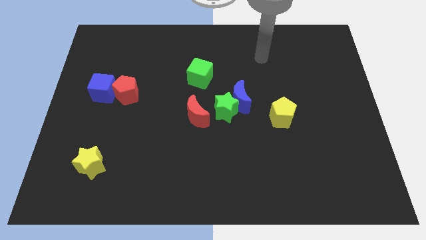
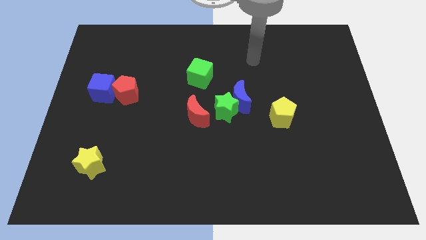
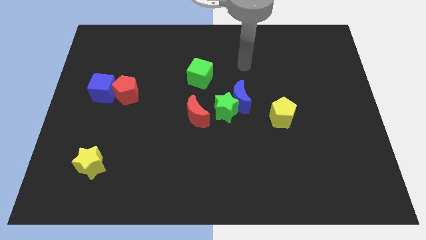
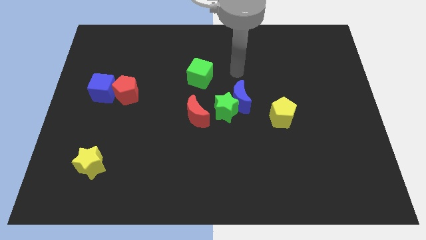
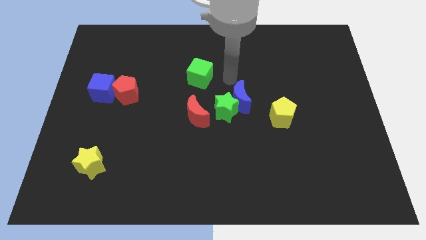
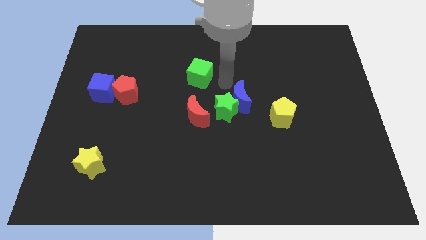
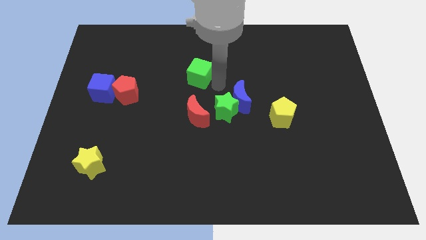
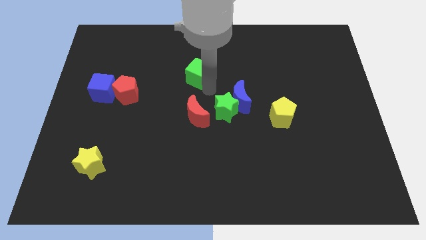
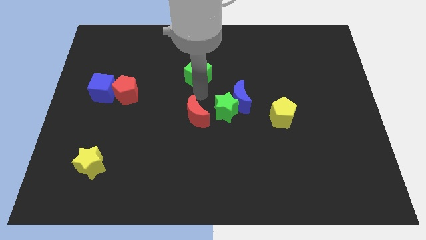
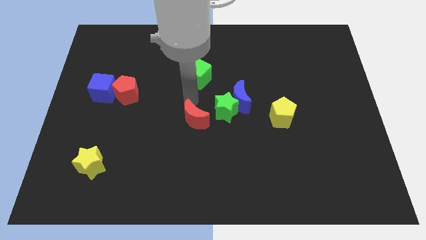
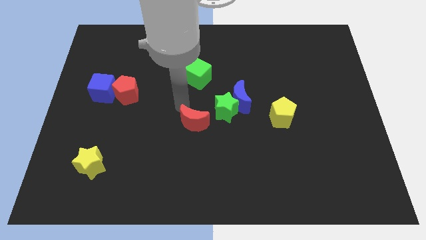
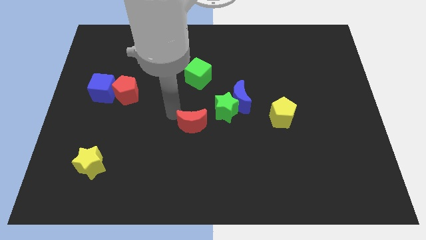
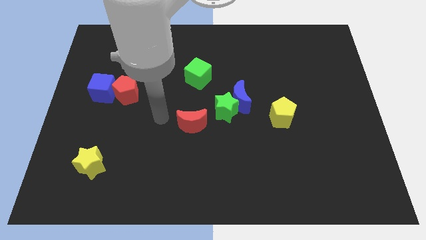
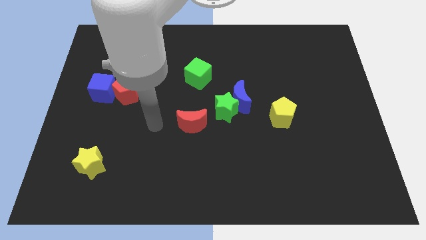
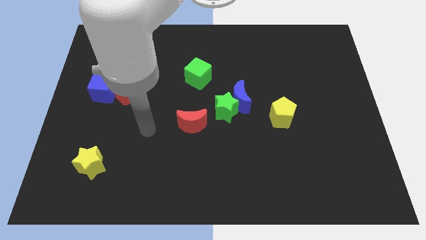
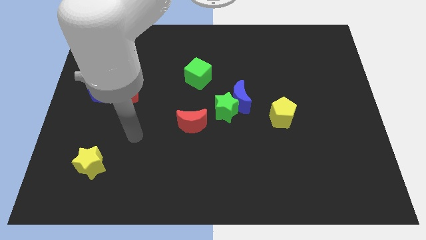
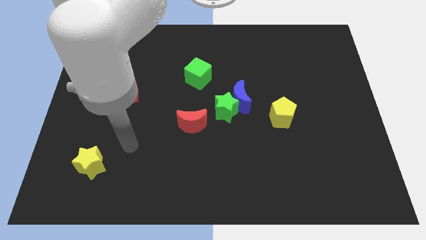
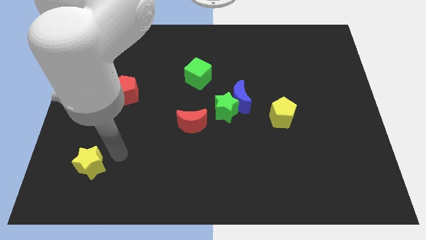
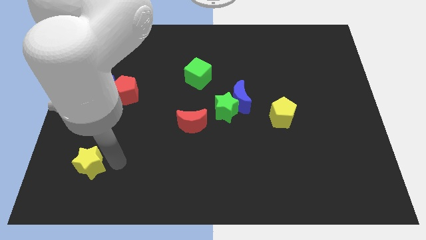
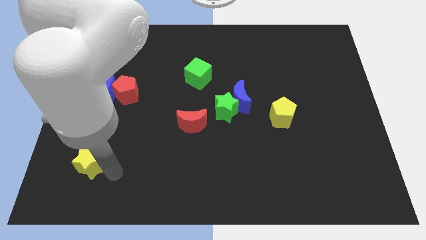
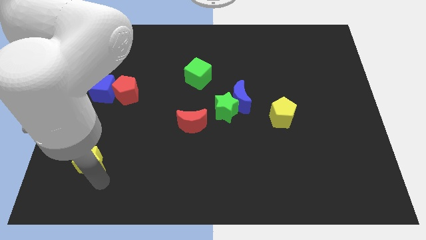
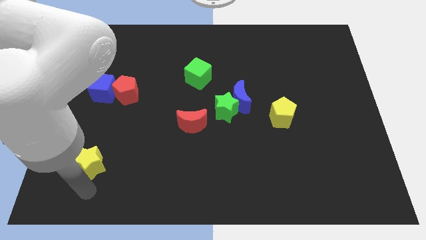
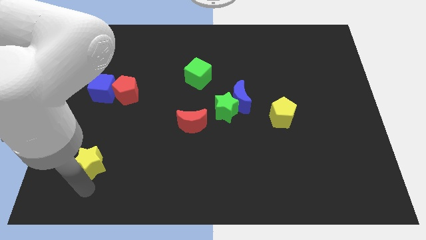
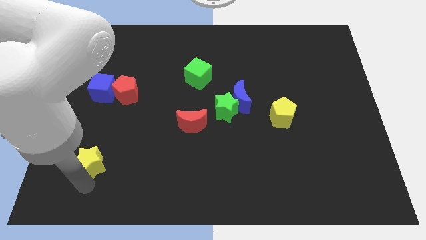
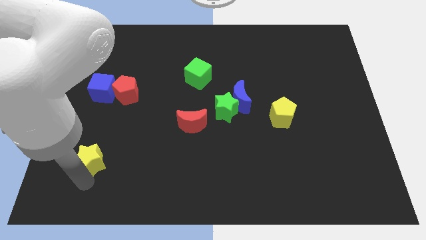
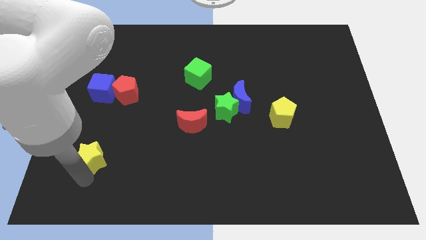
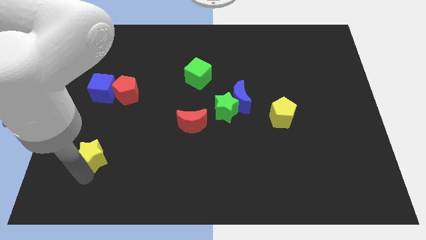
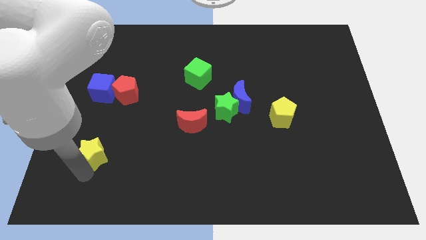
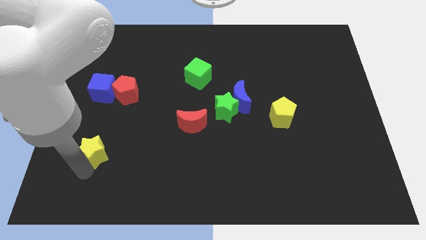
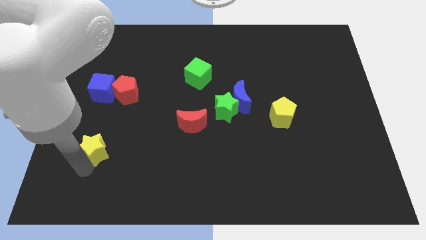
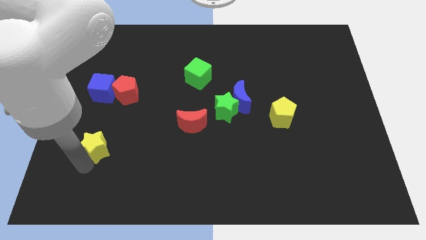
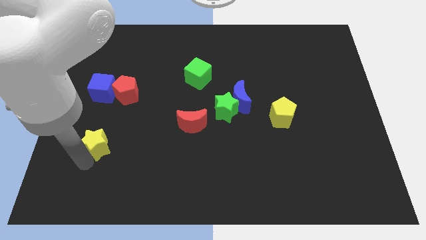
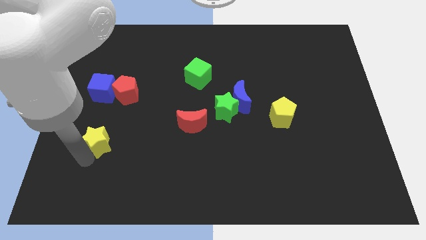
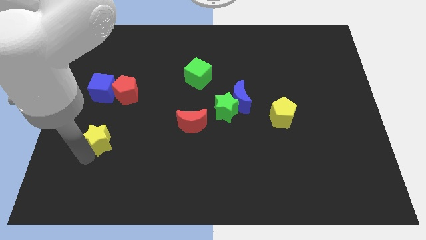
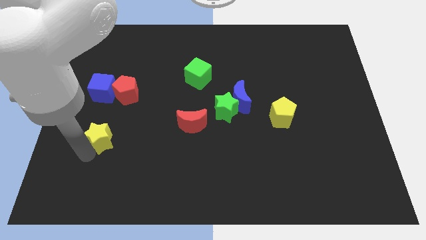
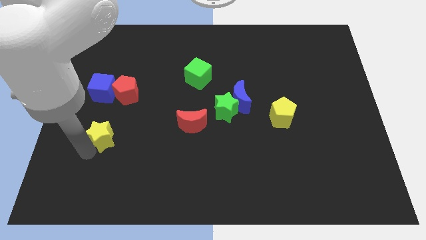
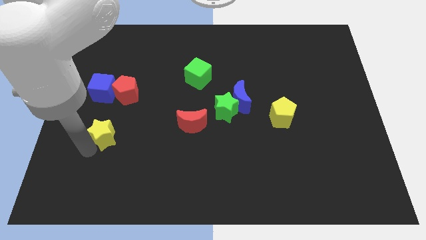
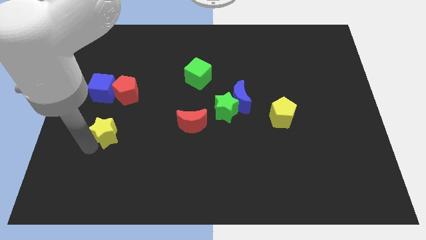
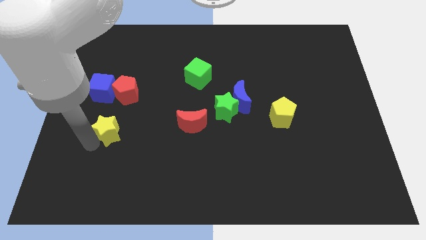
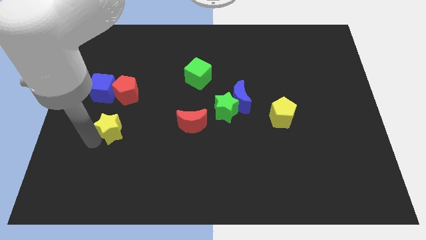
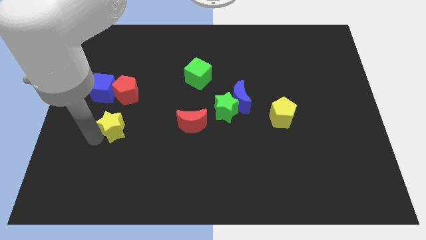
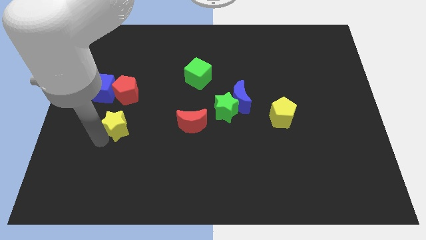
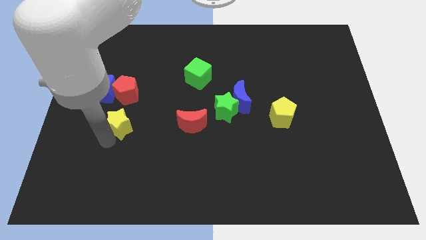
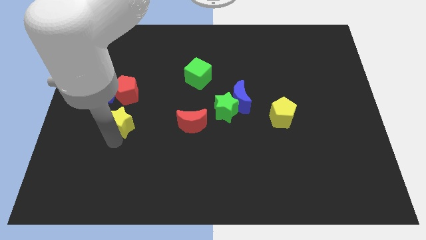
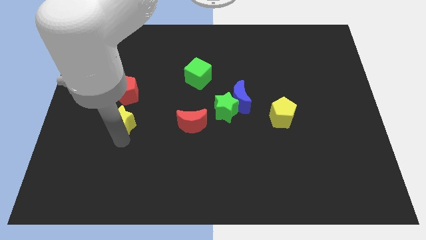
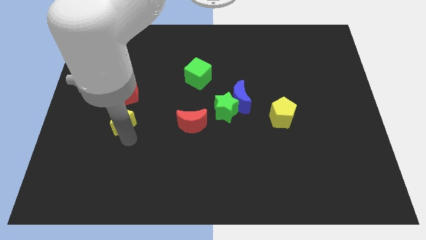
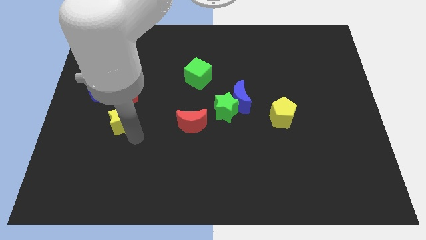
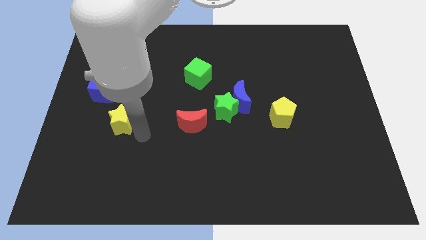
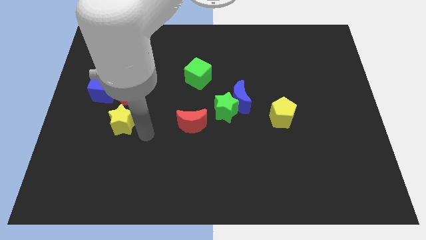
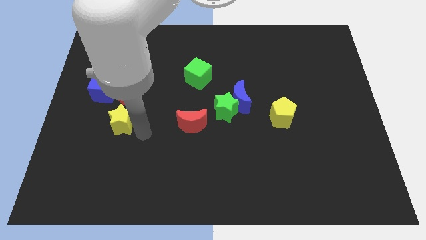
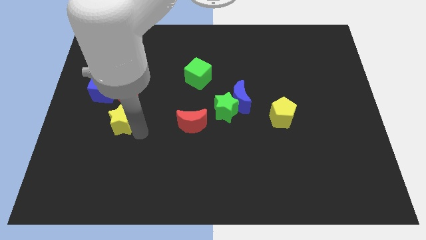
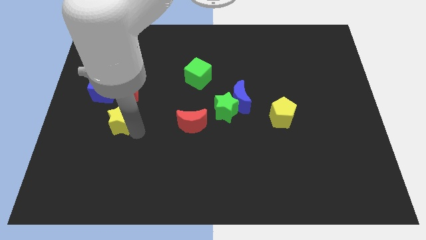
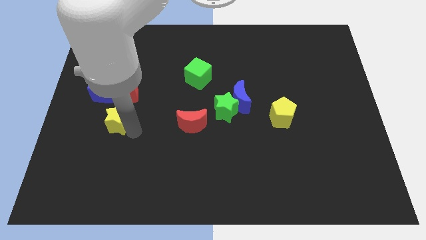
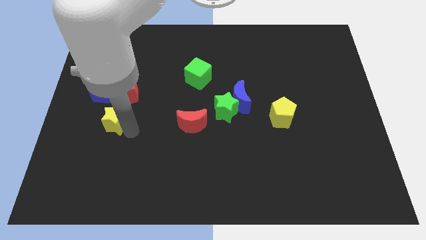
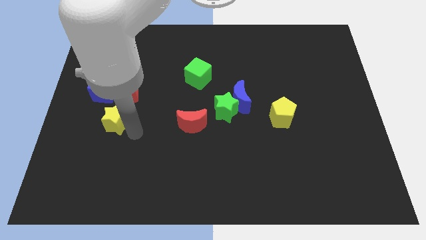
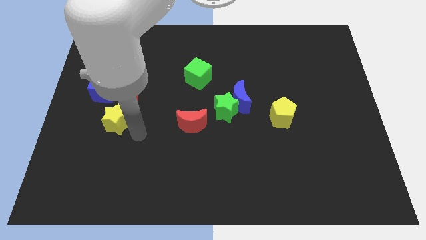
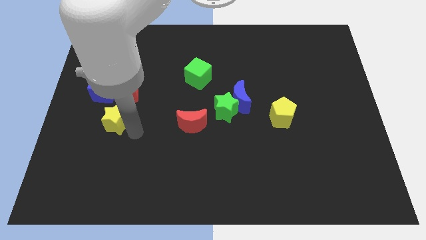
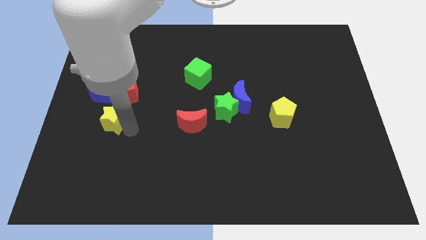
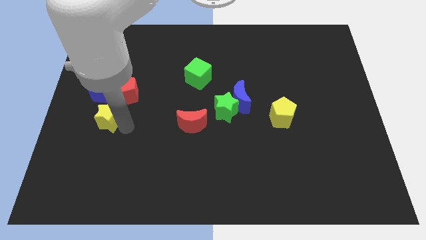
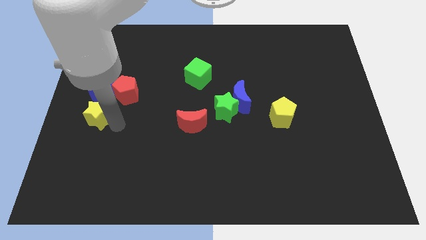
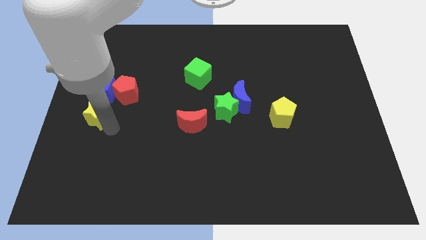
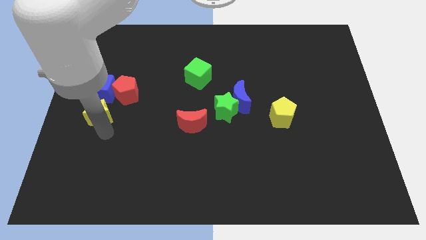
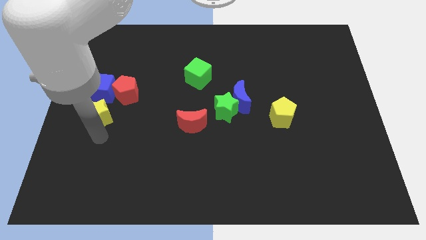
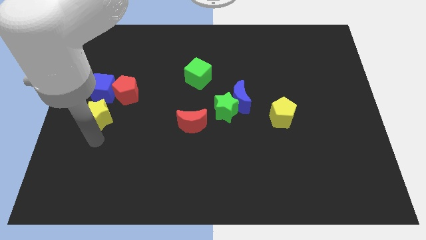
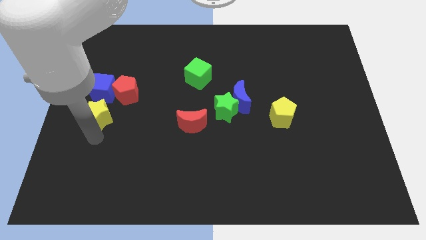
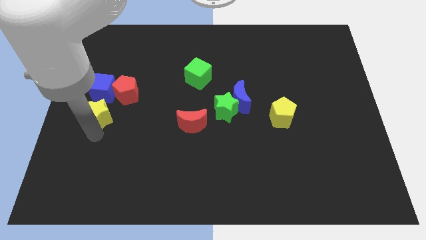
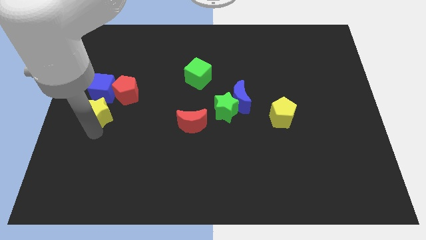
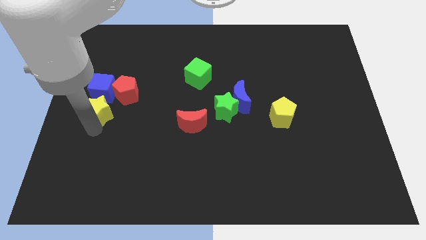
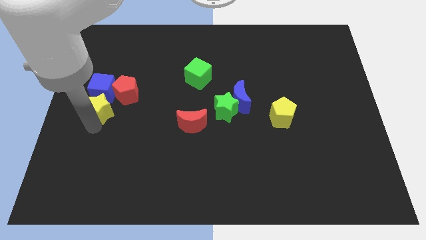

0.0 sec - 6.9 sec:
slide the yellow star towards the blue cube

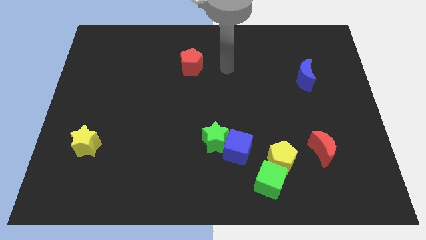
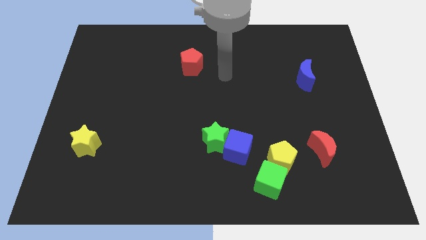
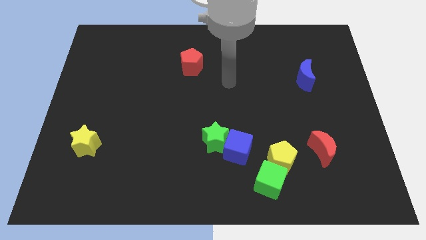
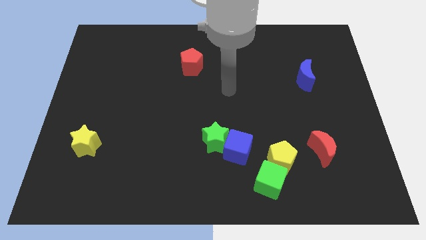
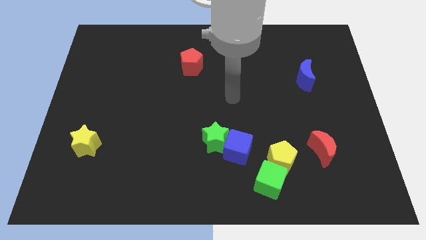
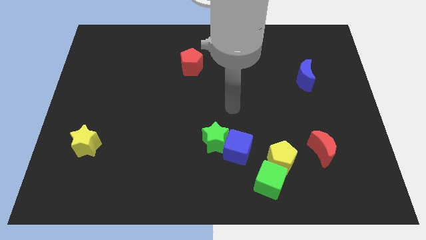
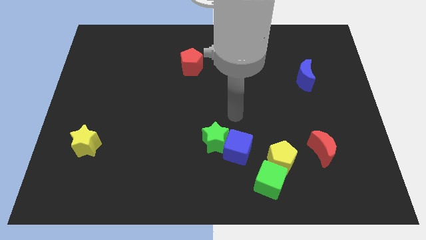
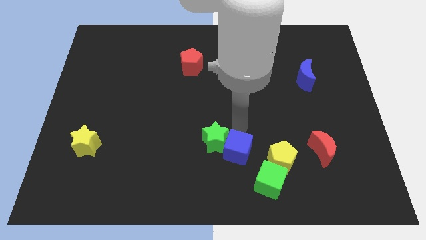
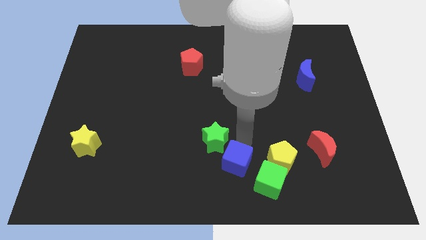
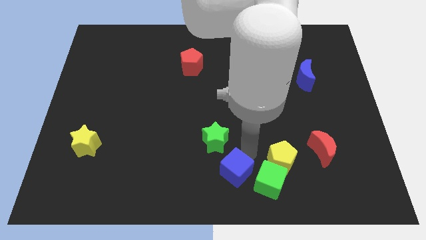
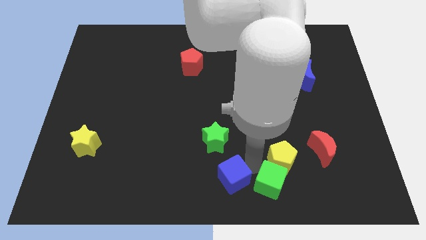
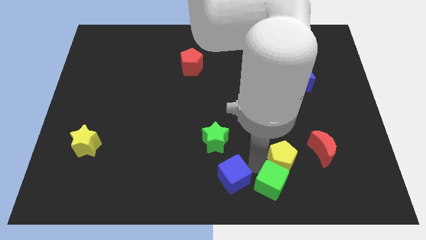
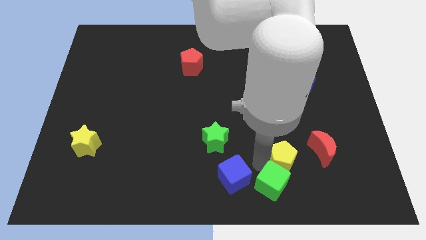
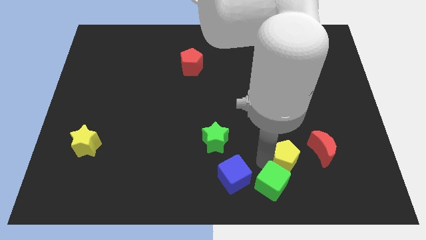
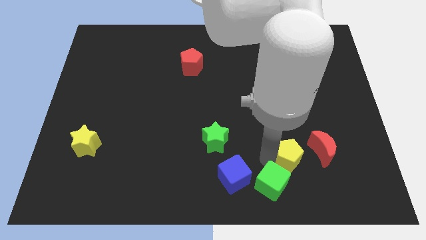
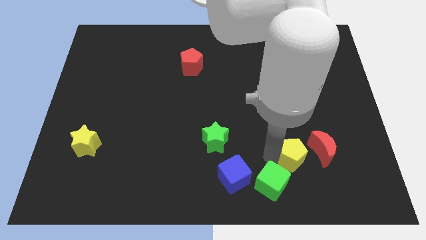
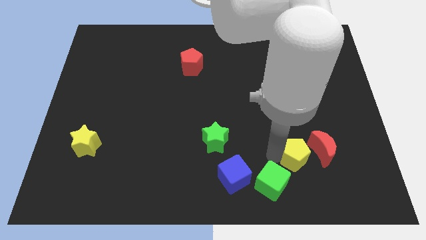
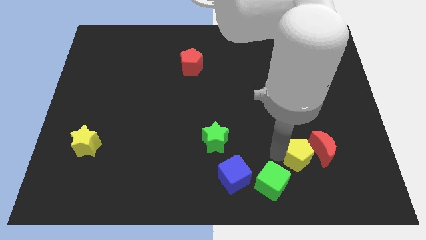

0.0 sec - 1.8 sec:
push the yellow pentagon next to the red moon
